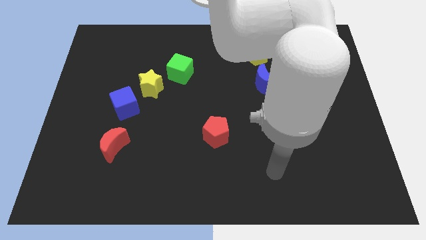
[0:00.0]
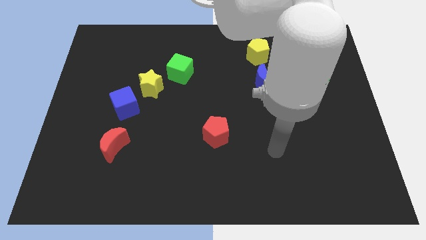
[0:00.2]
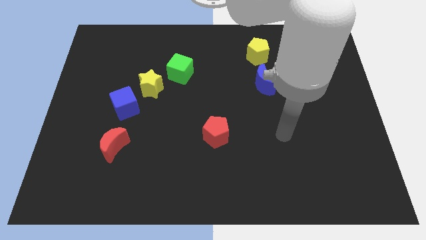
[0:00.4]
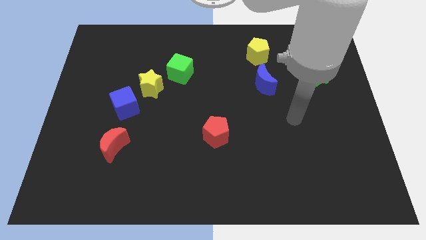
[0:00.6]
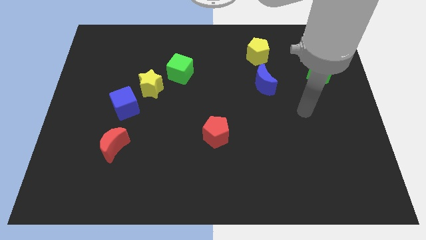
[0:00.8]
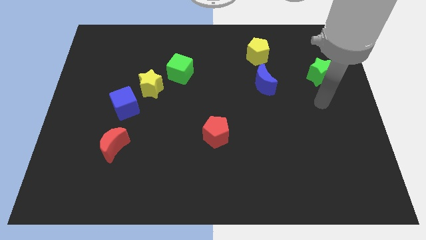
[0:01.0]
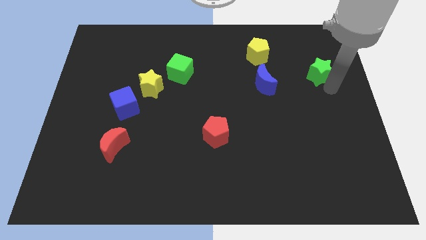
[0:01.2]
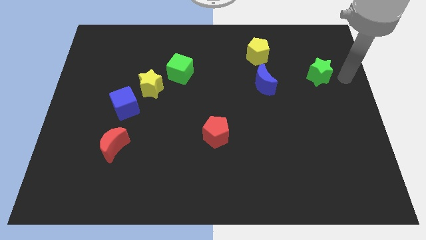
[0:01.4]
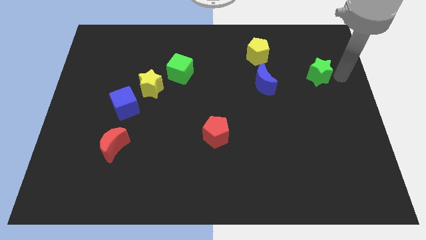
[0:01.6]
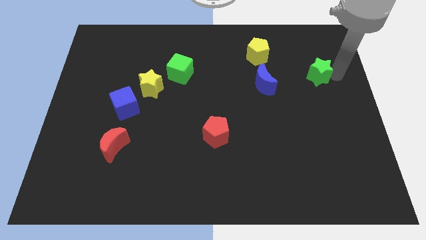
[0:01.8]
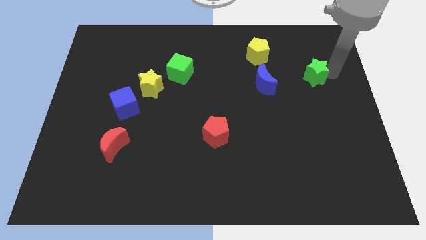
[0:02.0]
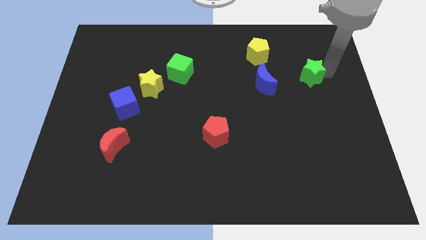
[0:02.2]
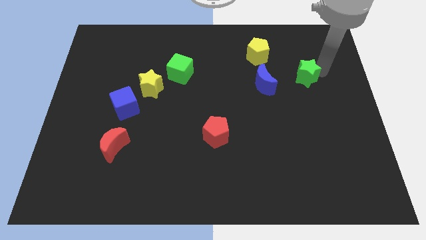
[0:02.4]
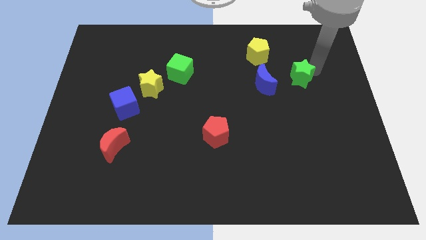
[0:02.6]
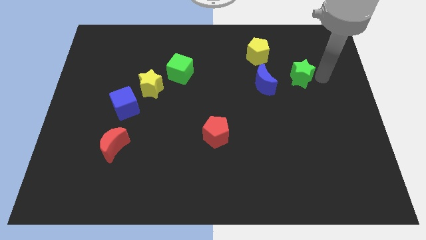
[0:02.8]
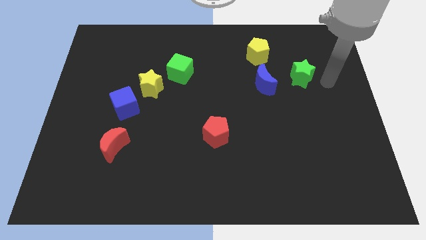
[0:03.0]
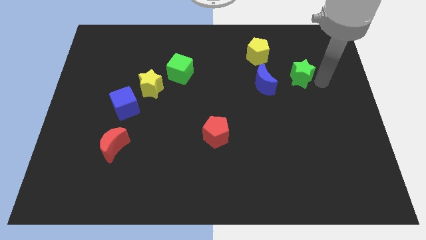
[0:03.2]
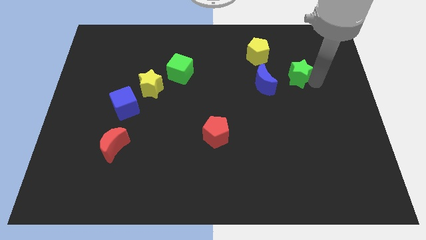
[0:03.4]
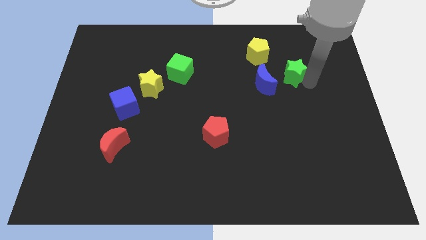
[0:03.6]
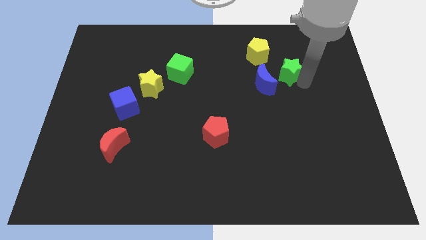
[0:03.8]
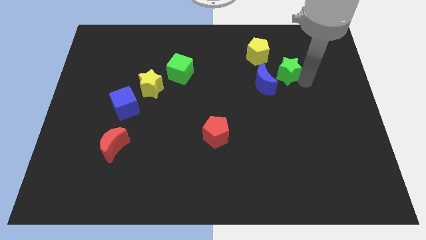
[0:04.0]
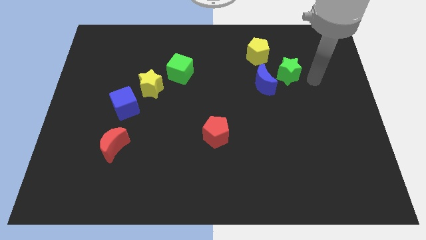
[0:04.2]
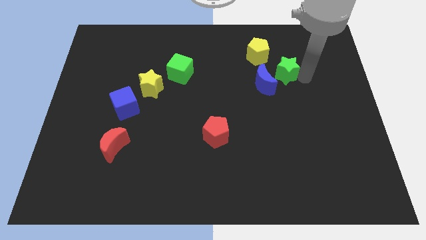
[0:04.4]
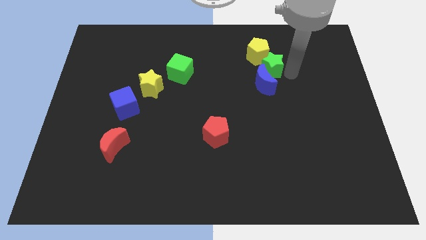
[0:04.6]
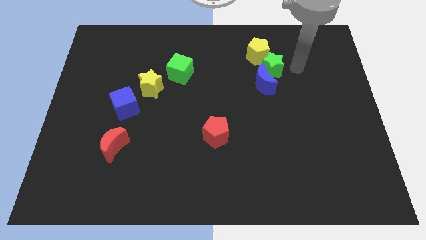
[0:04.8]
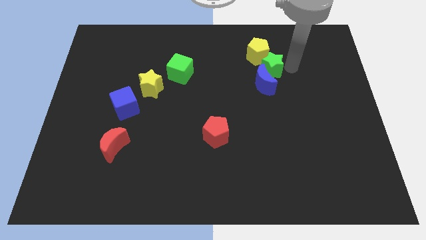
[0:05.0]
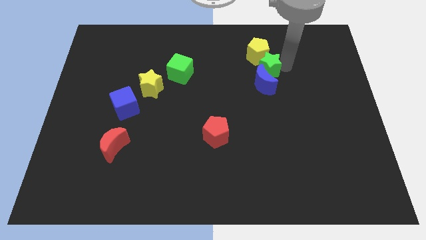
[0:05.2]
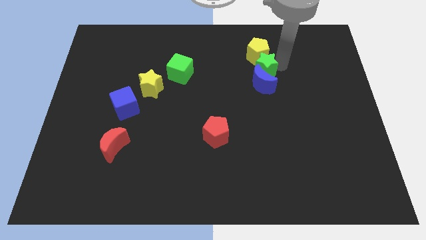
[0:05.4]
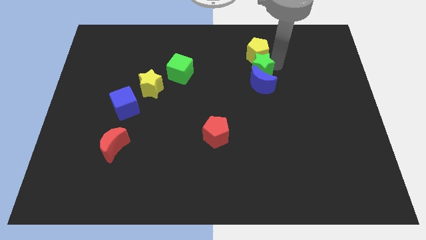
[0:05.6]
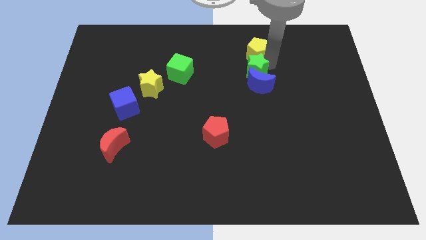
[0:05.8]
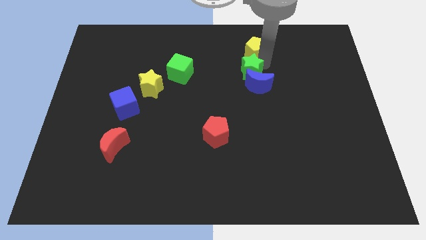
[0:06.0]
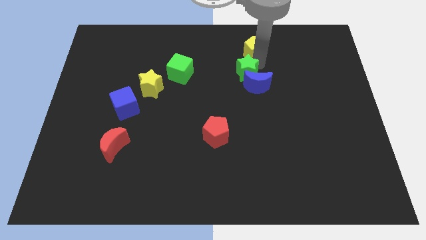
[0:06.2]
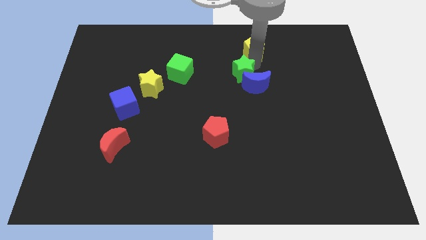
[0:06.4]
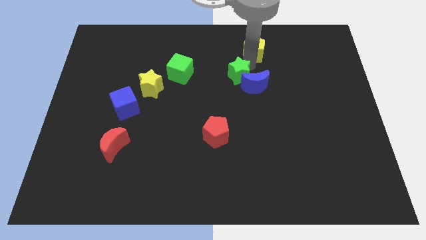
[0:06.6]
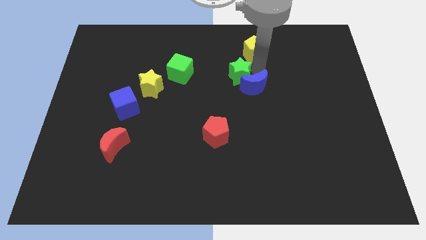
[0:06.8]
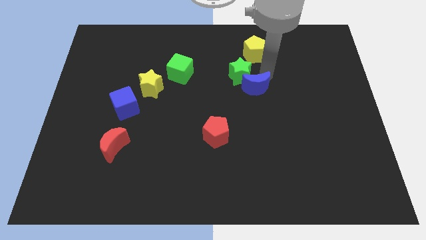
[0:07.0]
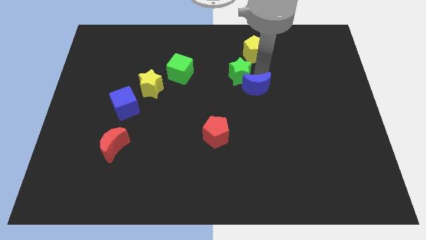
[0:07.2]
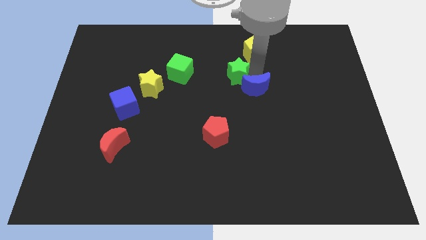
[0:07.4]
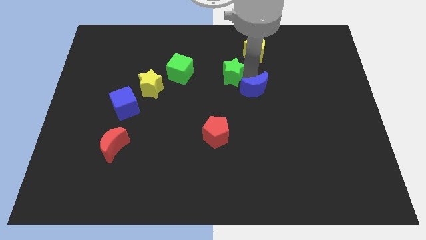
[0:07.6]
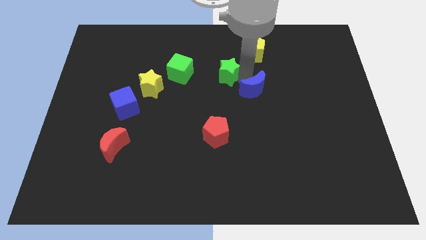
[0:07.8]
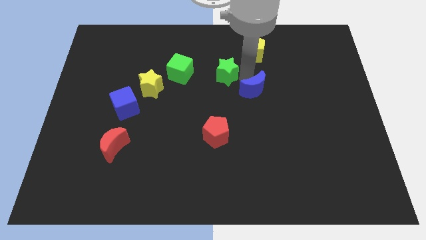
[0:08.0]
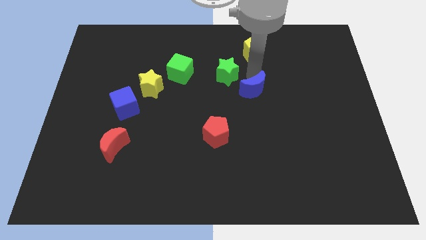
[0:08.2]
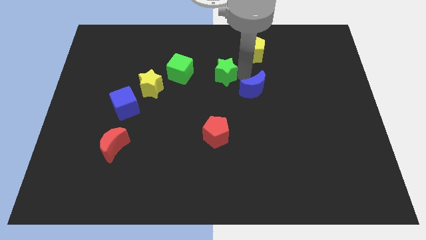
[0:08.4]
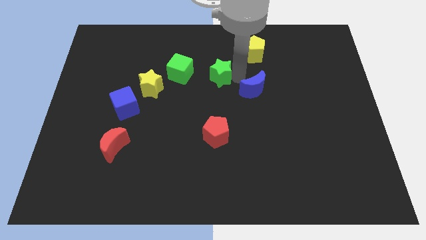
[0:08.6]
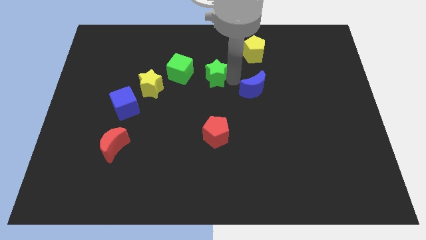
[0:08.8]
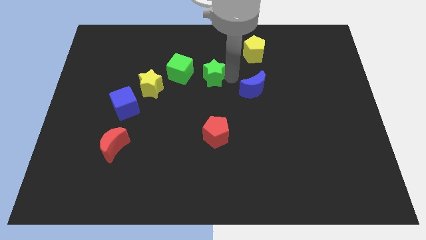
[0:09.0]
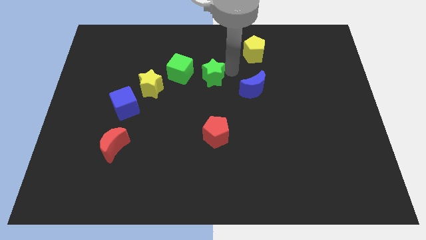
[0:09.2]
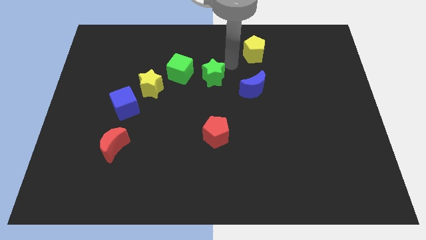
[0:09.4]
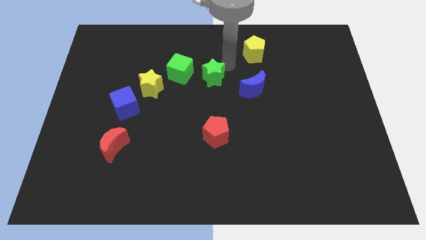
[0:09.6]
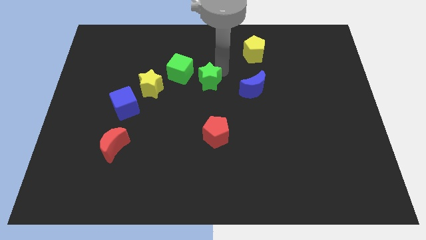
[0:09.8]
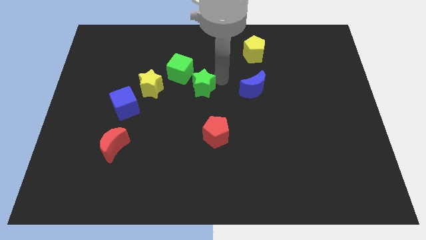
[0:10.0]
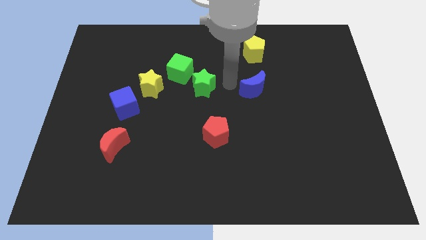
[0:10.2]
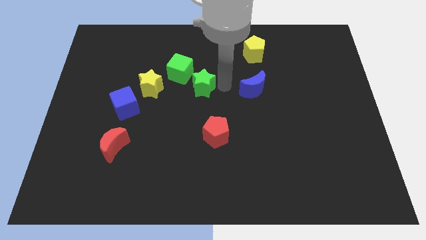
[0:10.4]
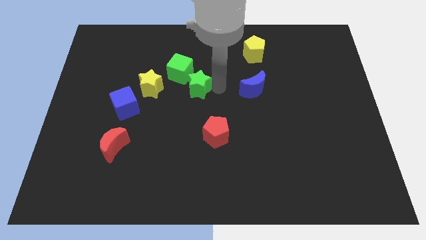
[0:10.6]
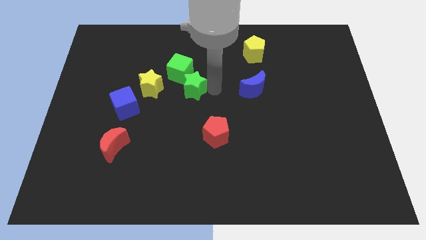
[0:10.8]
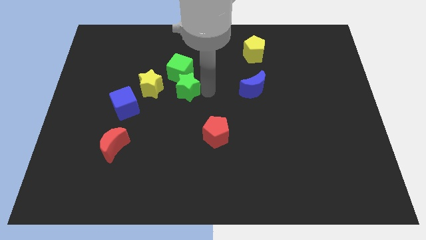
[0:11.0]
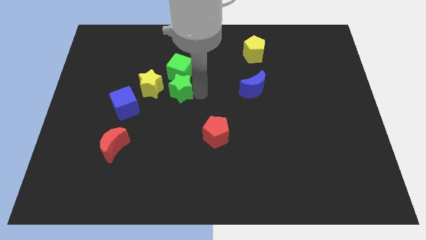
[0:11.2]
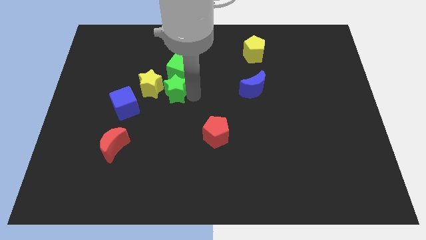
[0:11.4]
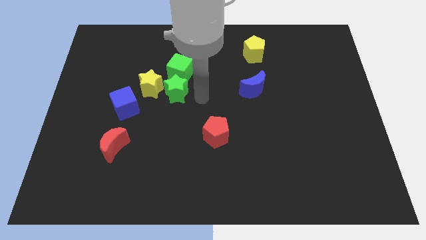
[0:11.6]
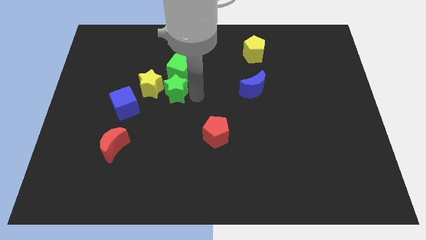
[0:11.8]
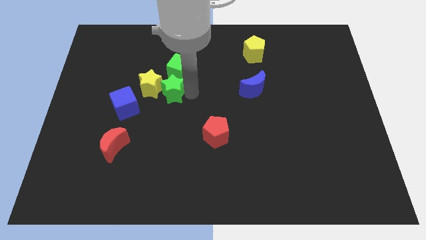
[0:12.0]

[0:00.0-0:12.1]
push the green star towards the yellow star
